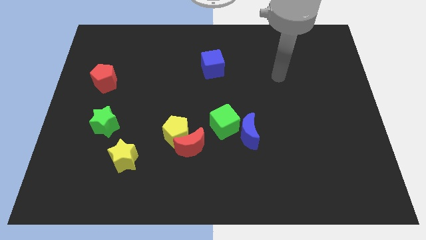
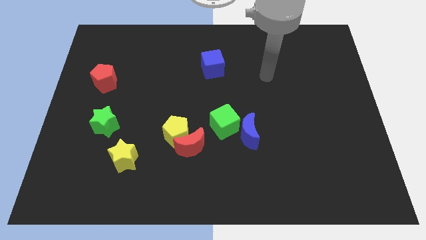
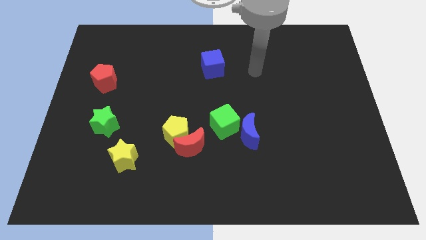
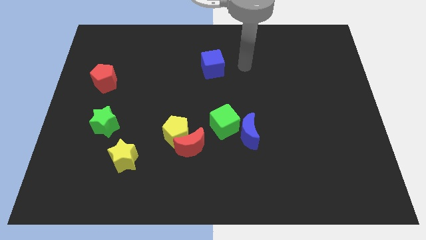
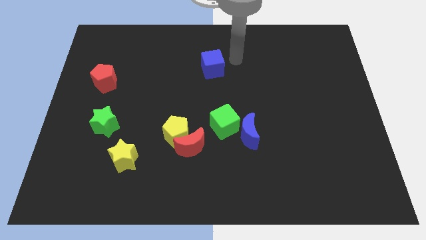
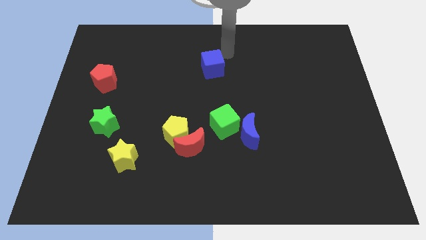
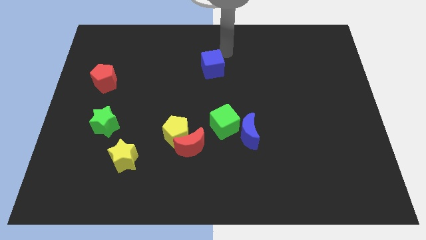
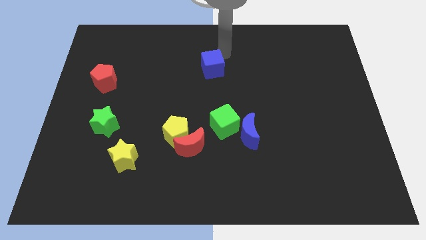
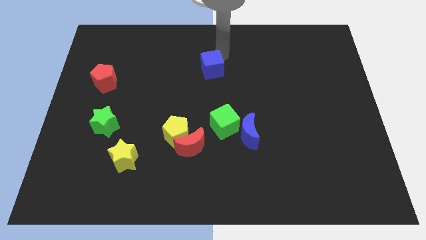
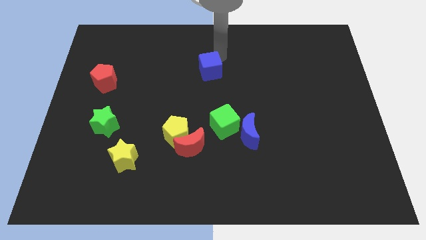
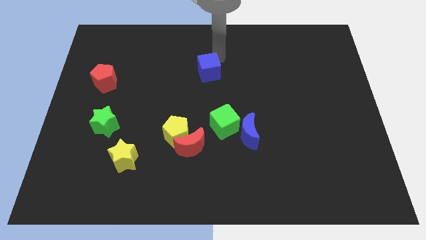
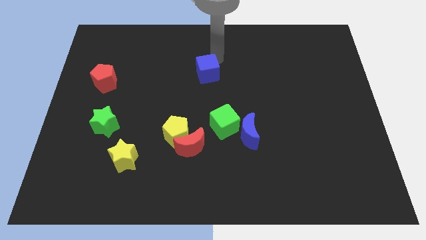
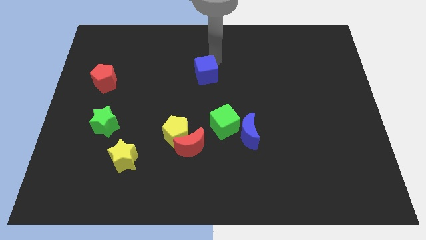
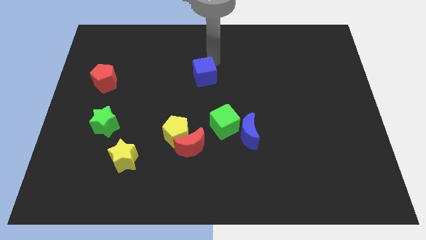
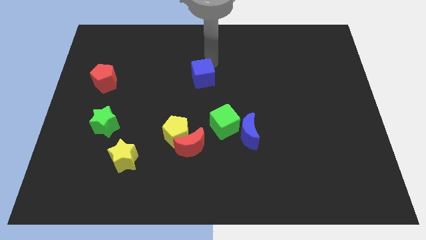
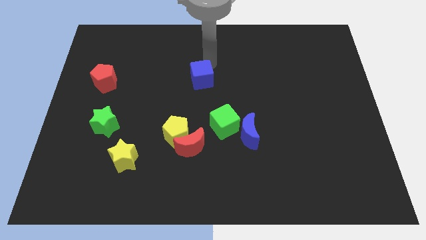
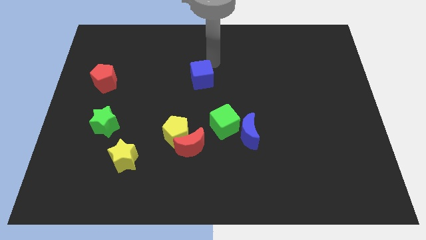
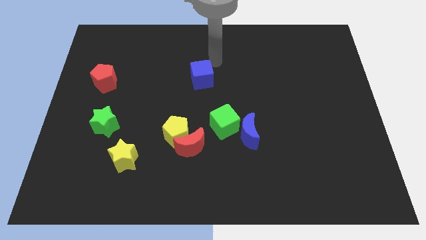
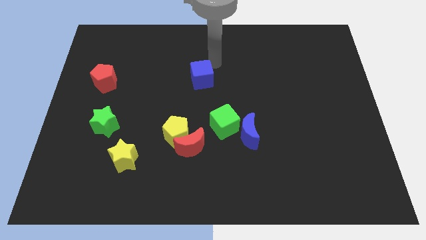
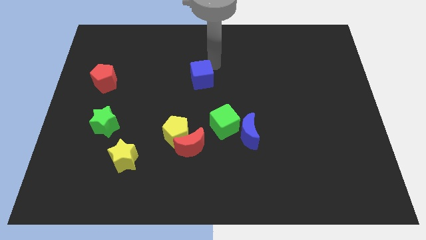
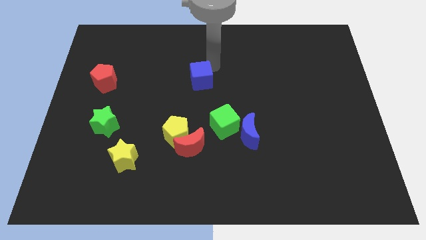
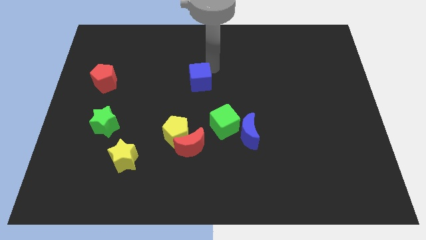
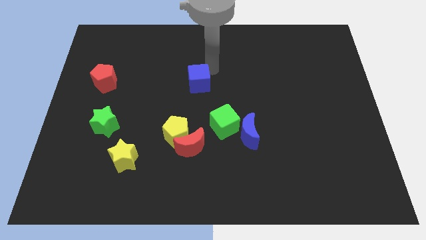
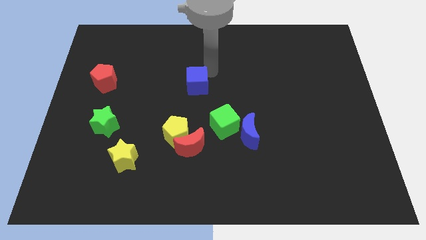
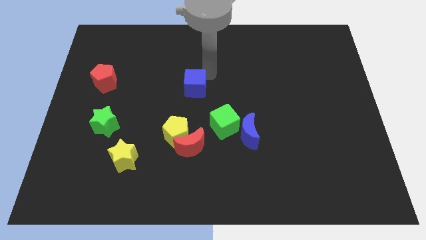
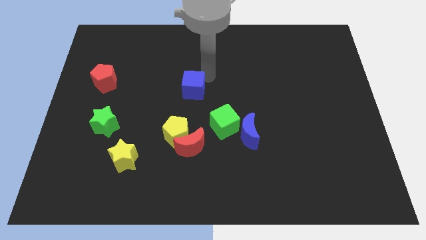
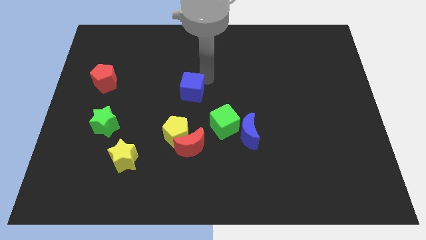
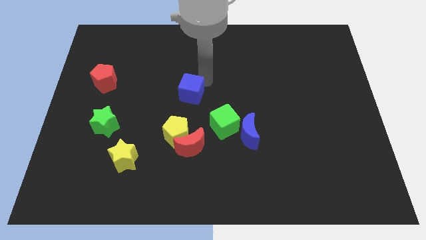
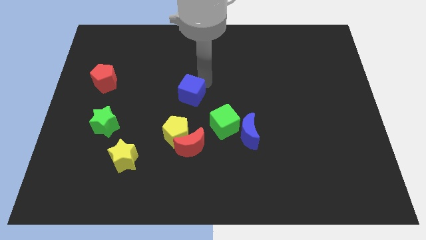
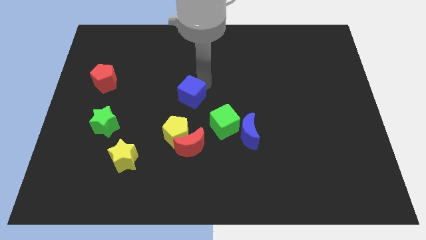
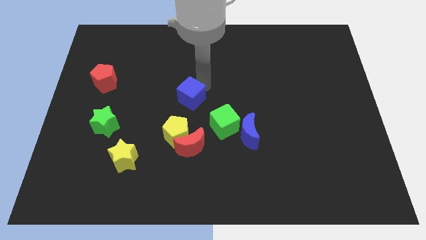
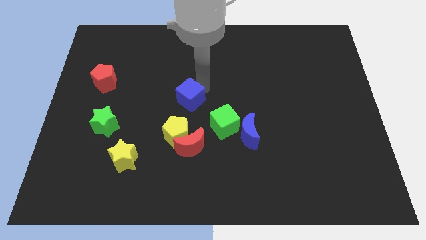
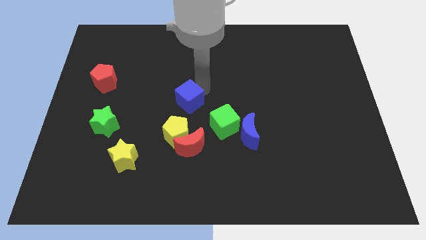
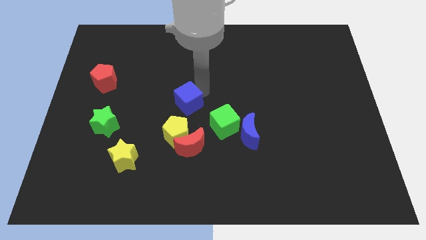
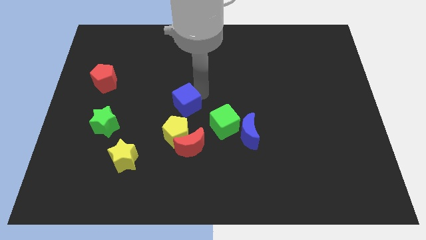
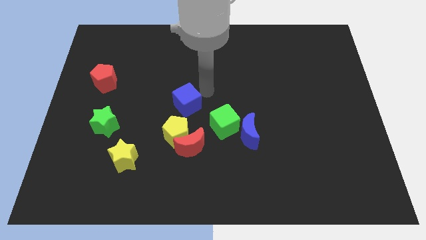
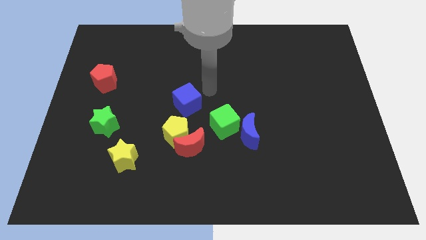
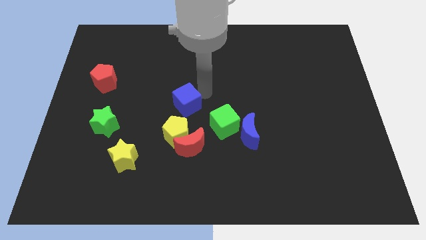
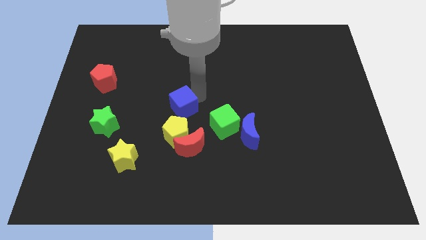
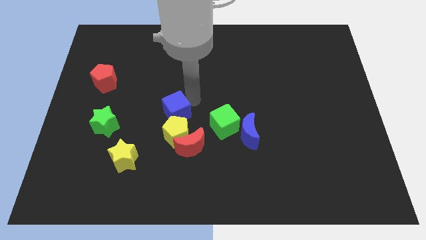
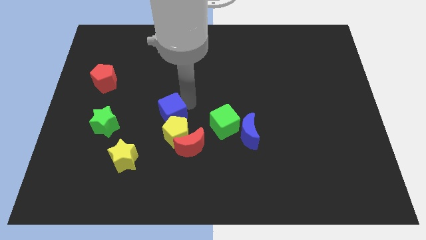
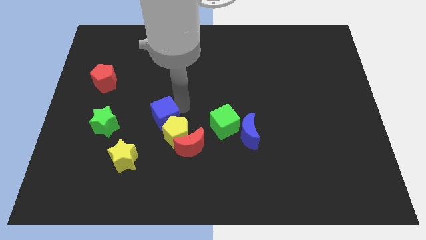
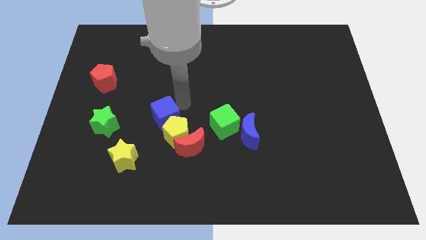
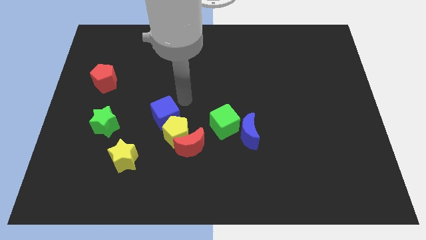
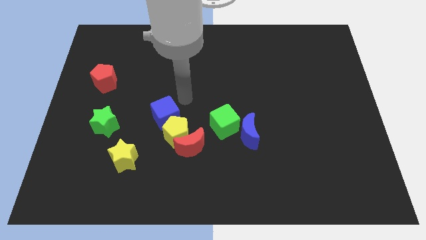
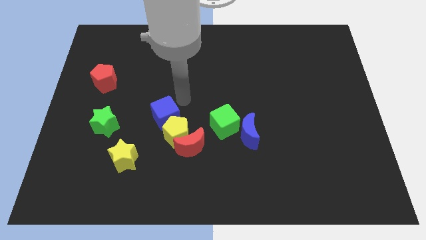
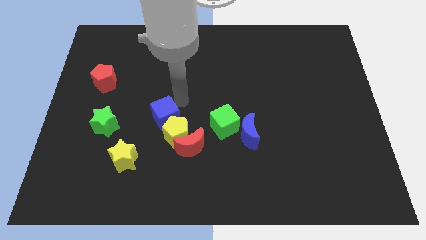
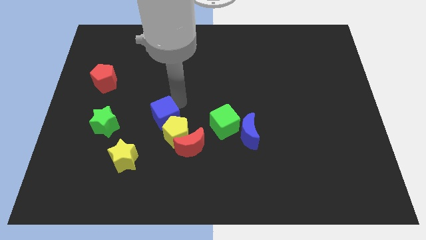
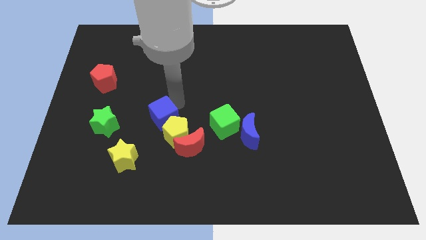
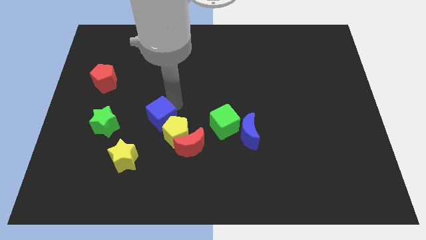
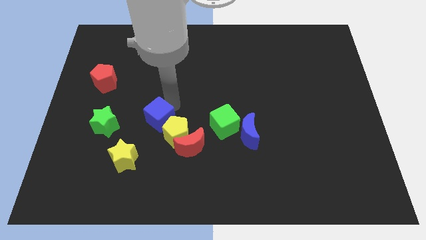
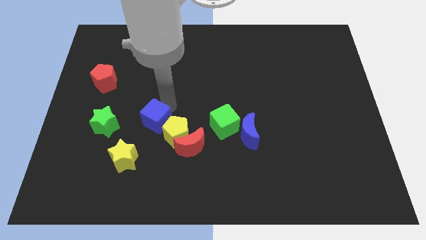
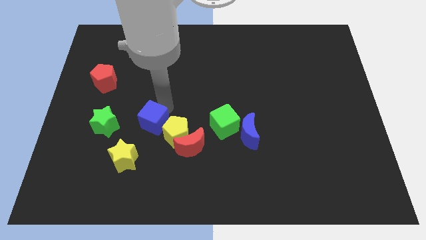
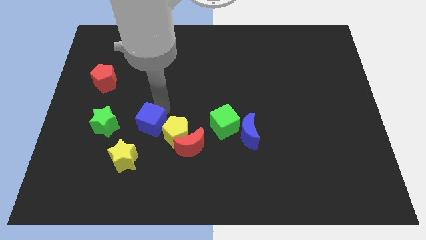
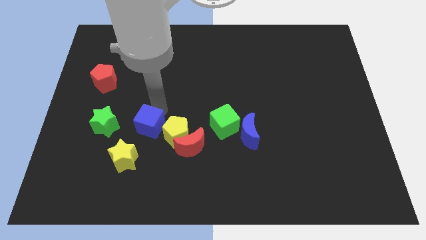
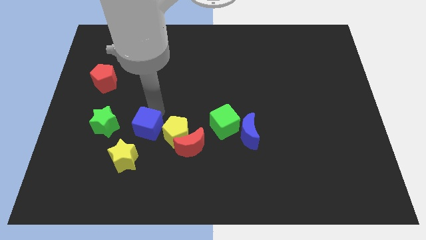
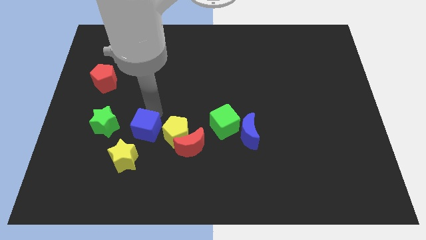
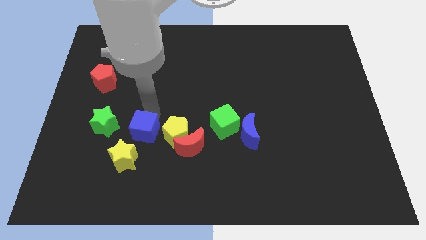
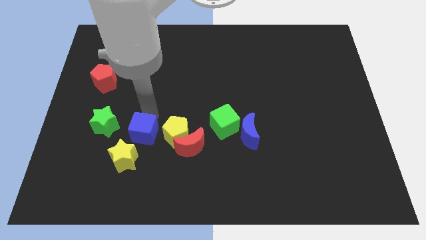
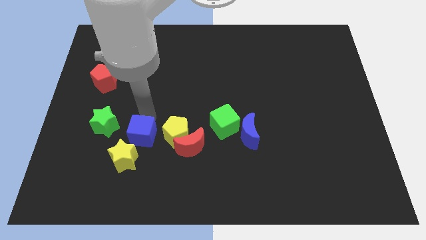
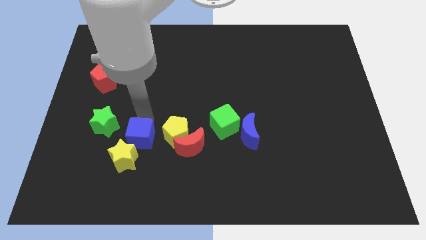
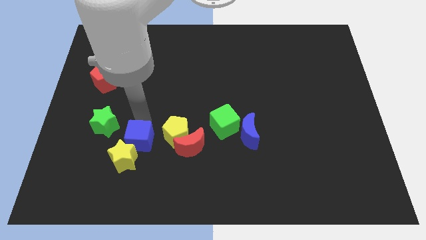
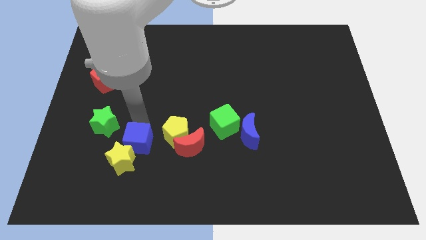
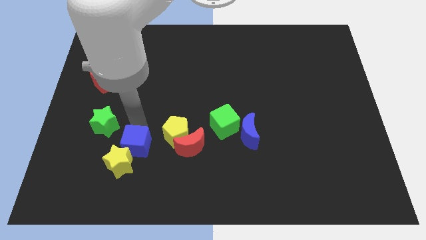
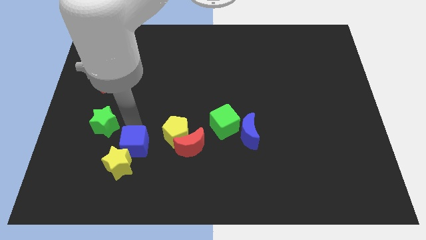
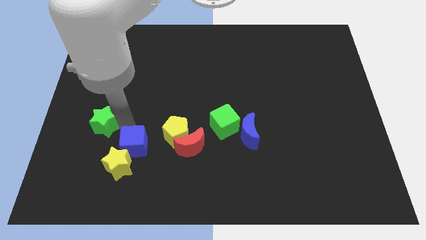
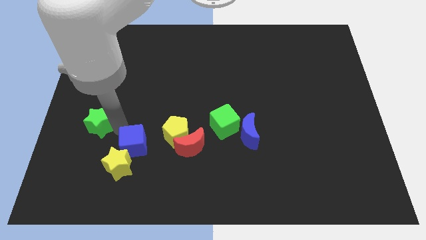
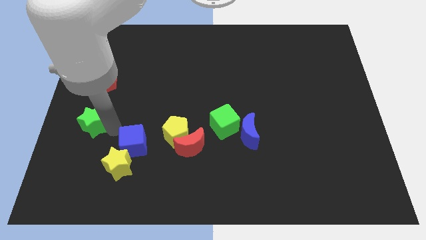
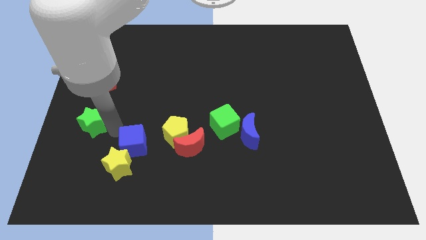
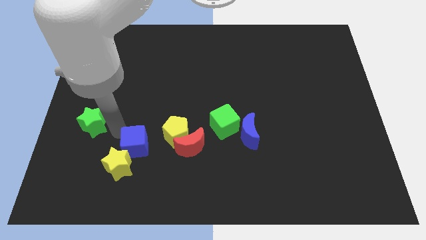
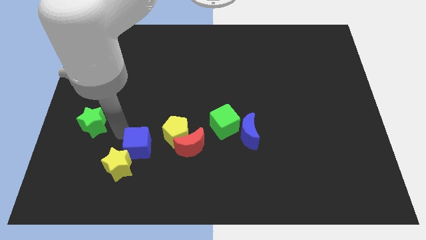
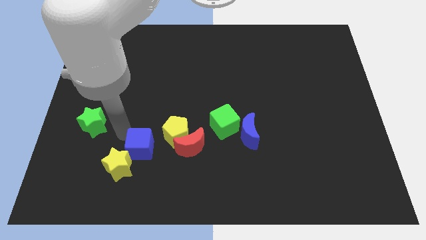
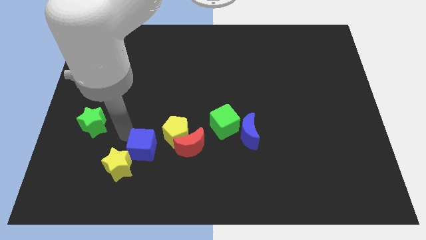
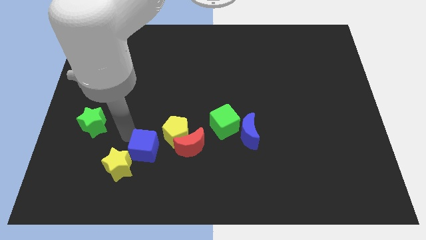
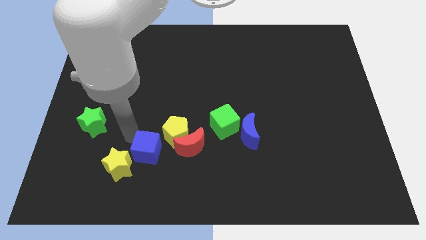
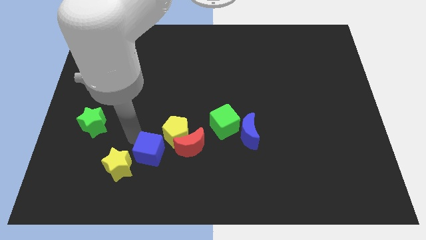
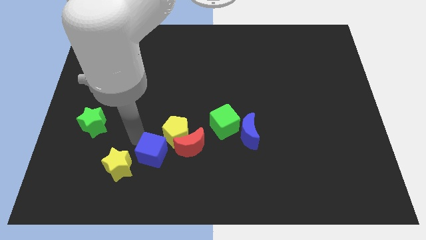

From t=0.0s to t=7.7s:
push the blue cube to the bottom left side of the red moon
